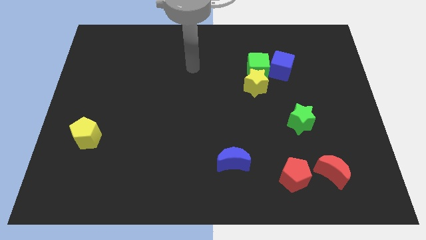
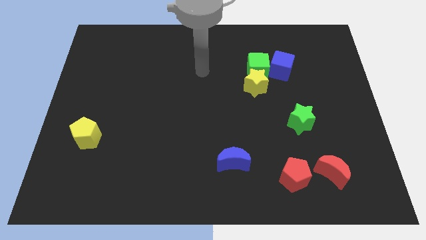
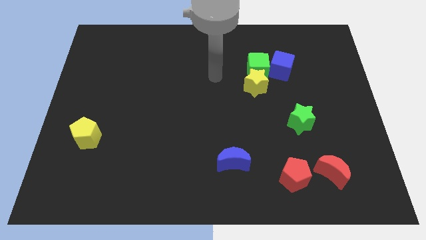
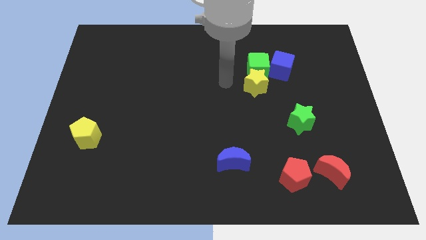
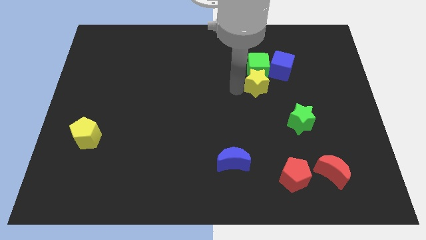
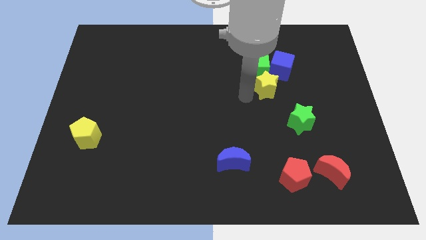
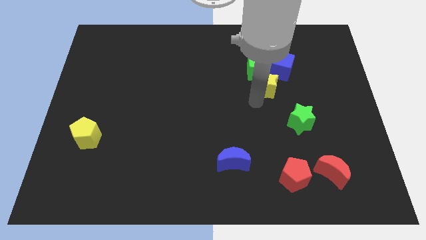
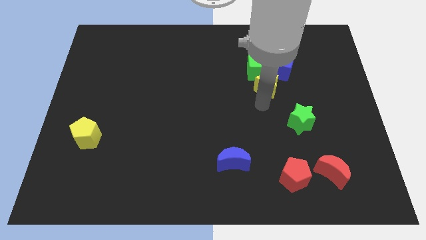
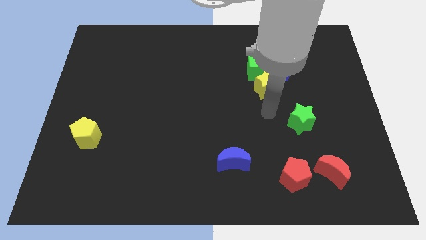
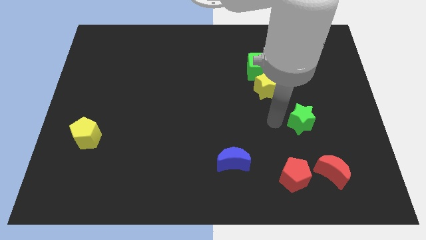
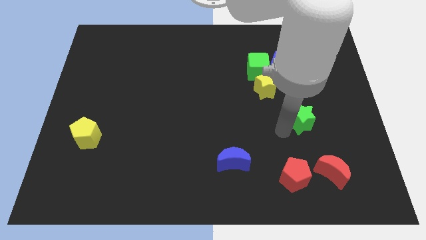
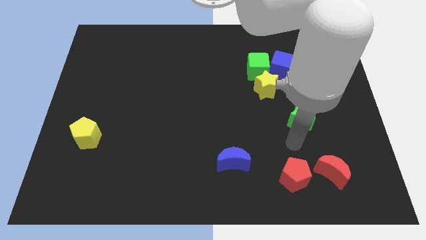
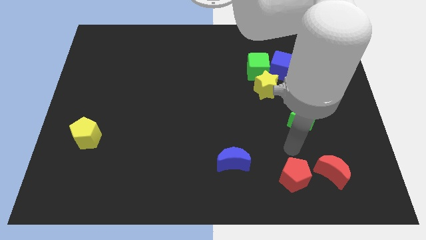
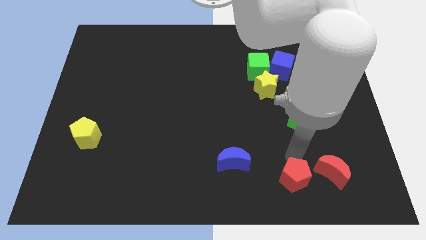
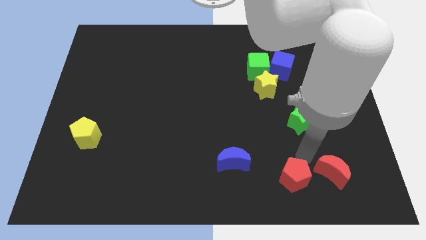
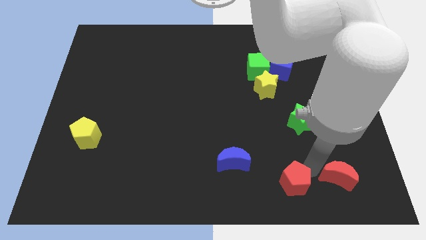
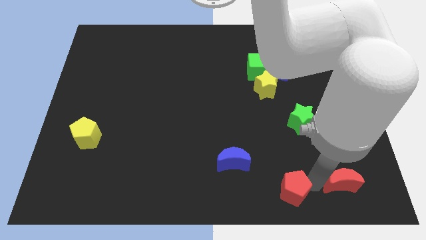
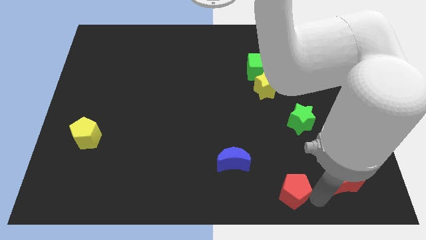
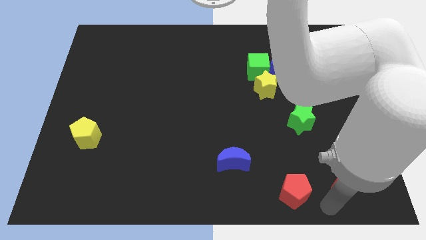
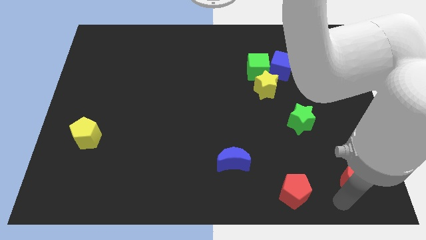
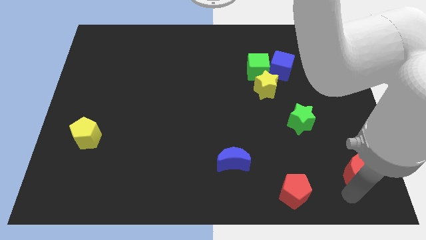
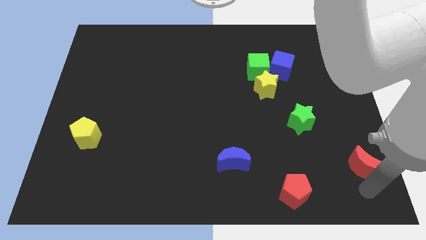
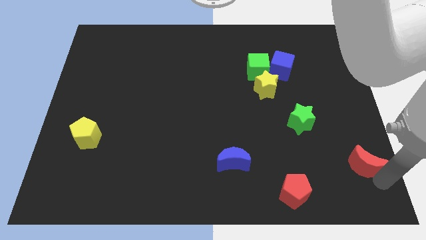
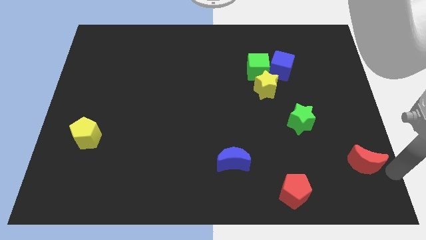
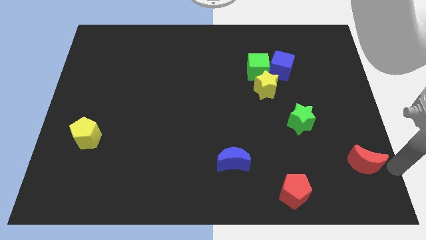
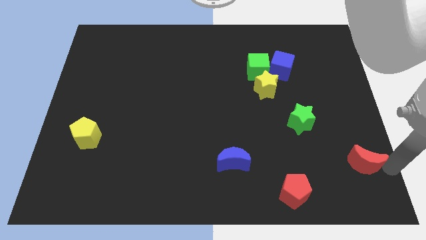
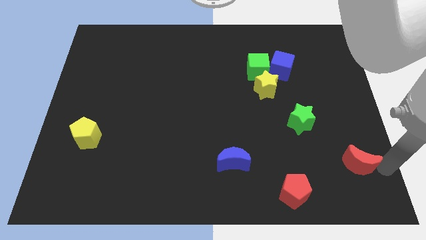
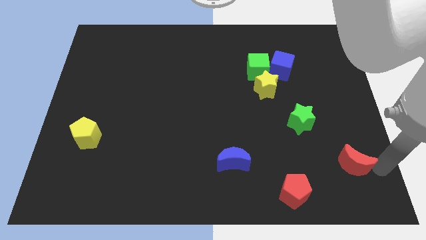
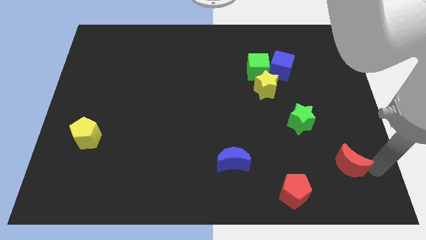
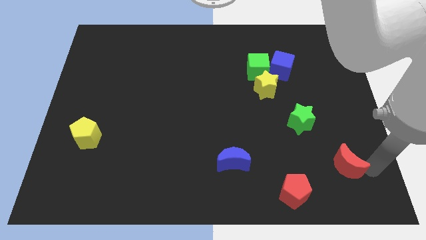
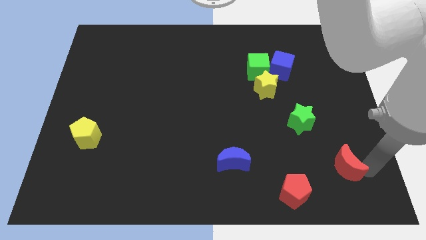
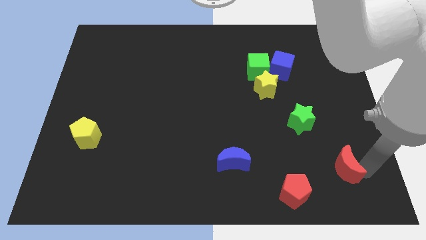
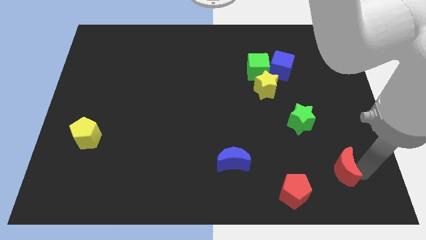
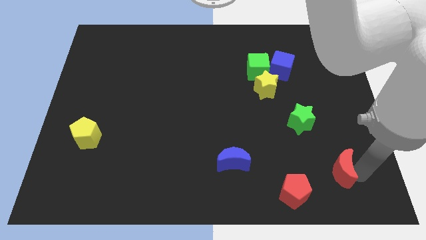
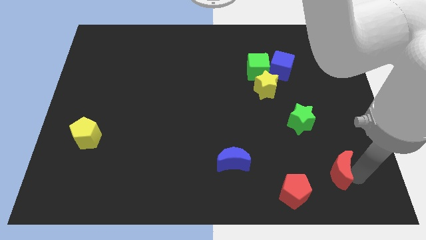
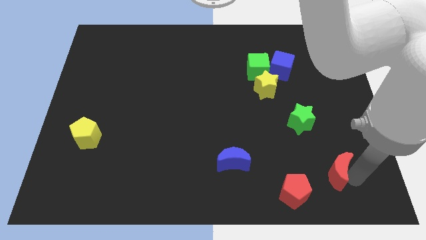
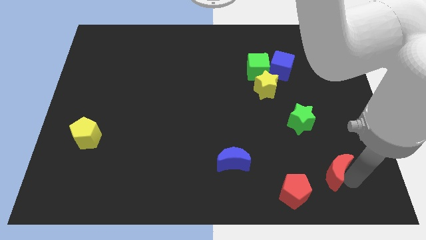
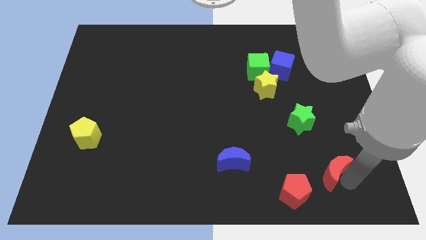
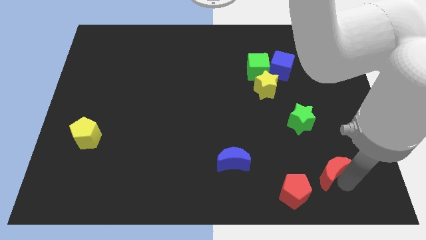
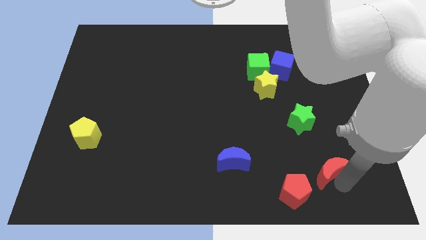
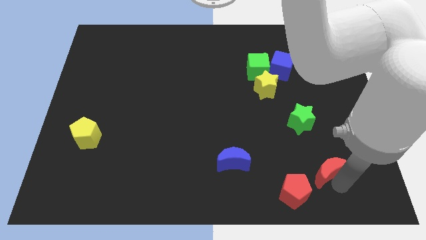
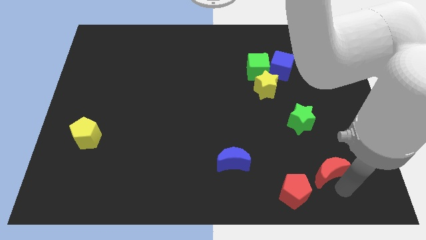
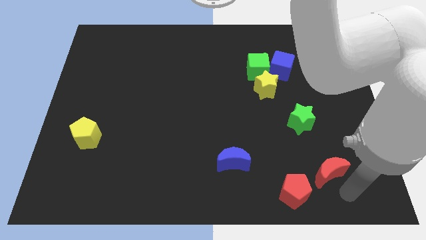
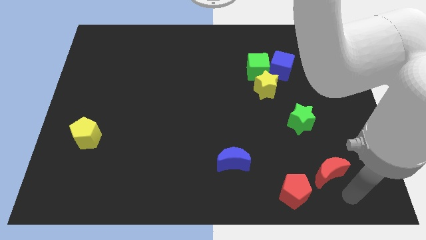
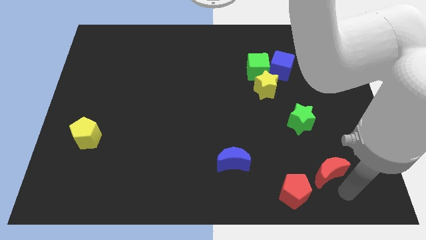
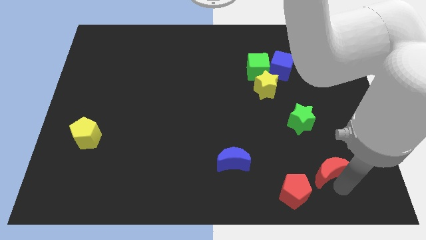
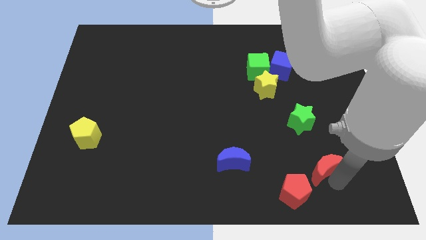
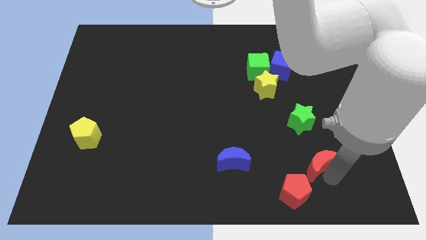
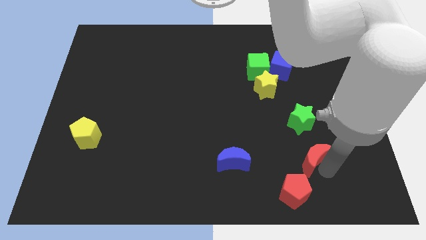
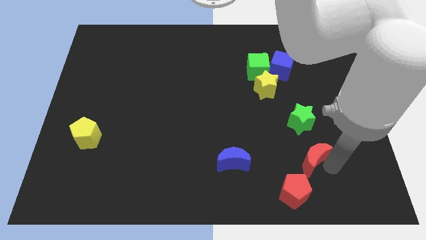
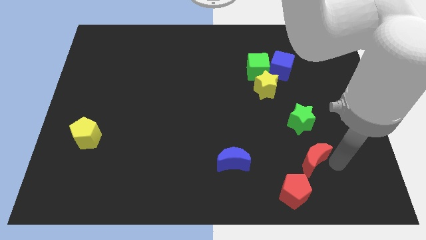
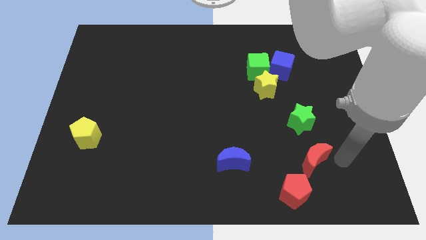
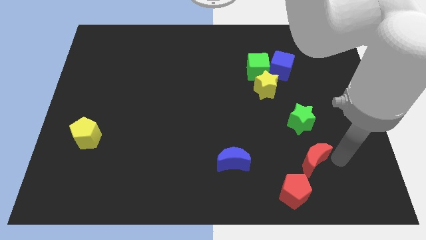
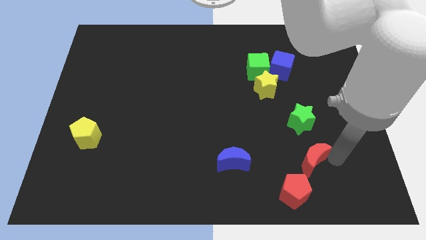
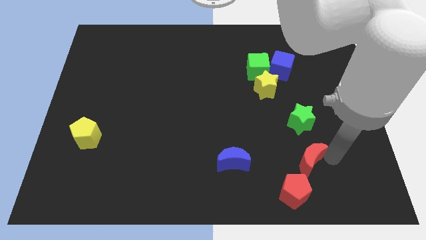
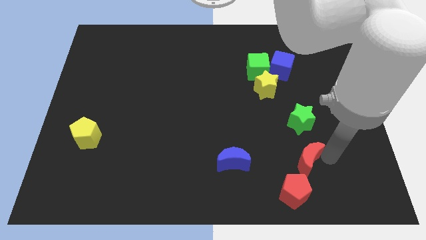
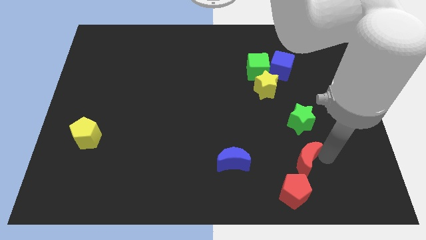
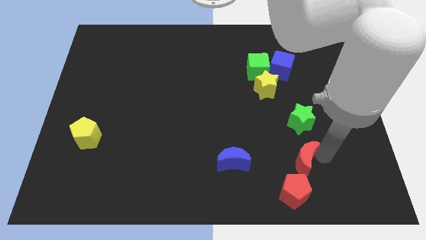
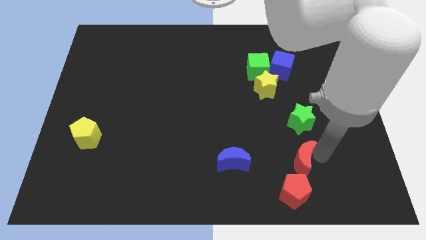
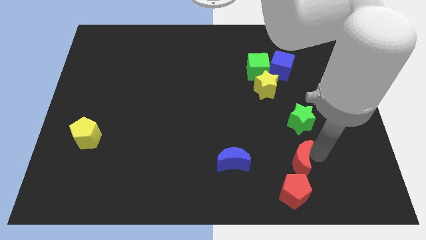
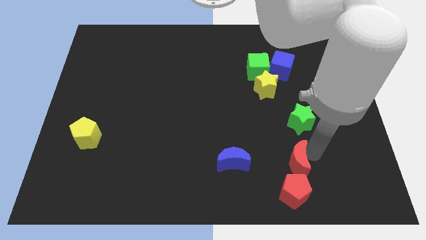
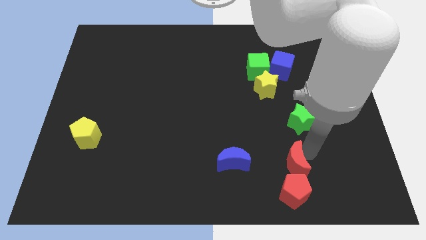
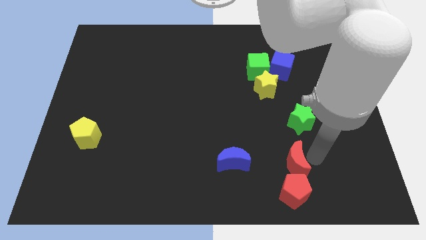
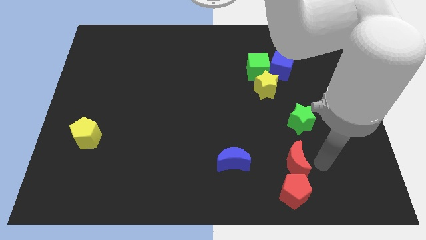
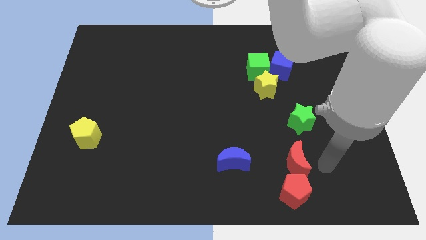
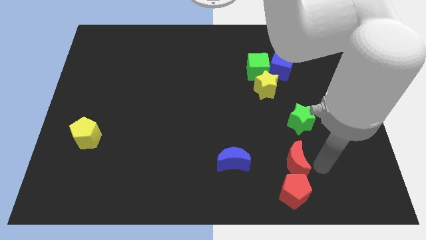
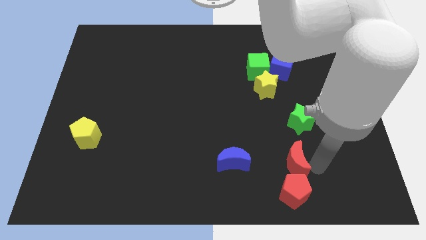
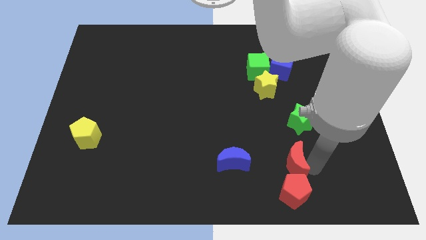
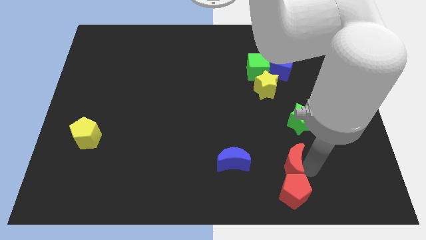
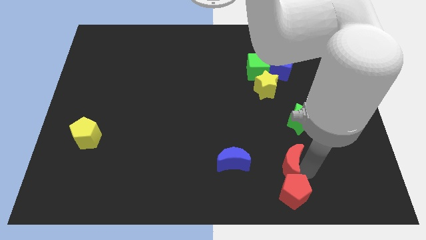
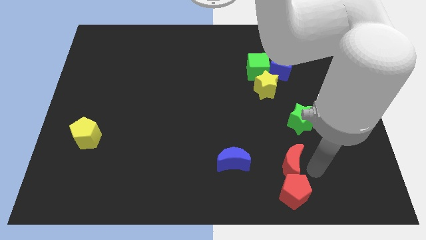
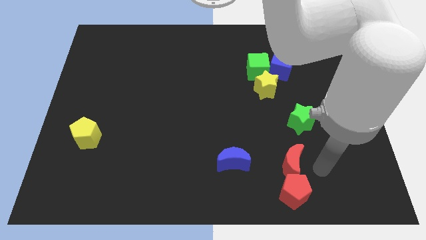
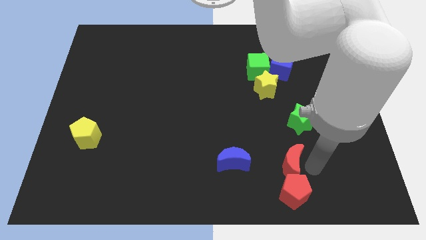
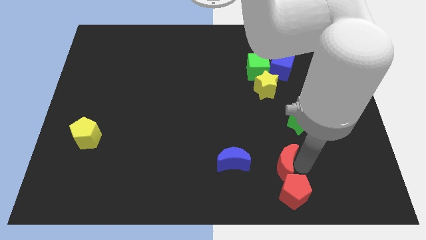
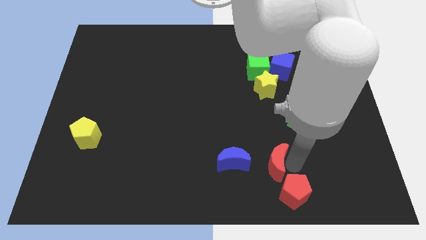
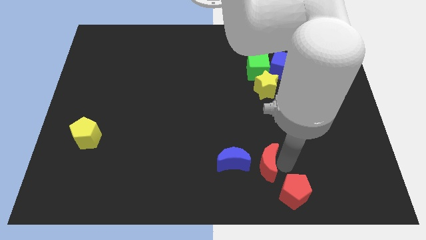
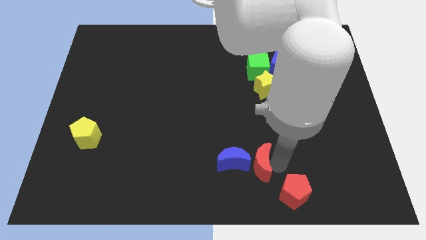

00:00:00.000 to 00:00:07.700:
slide the red moon towards the blue moon
